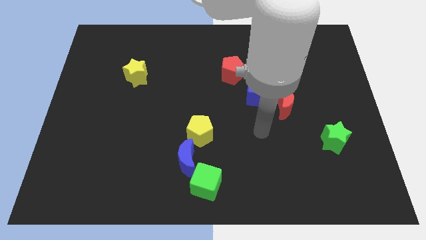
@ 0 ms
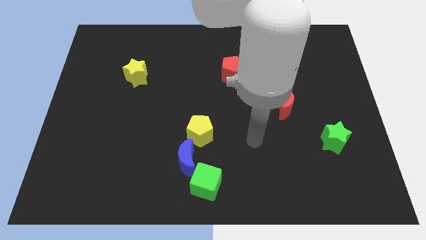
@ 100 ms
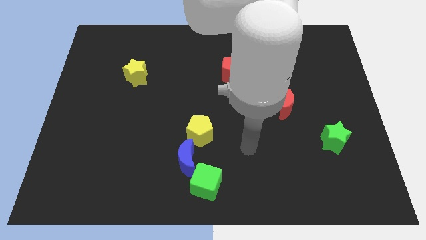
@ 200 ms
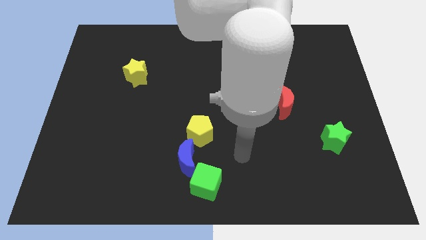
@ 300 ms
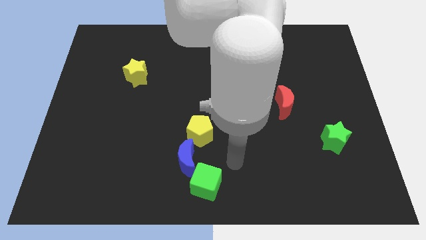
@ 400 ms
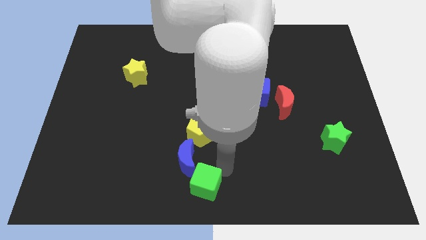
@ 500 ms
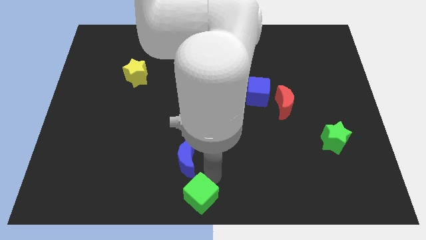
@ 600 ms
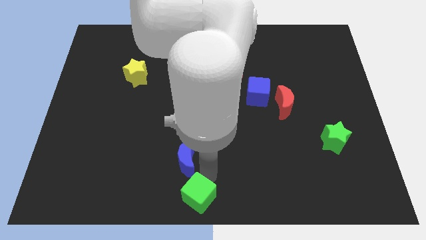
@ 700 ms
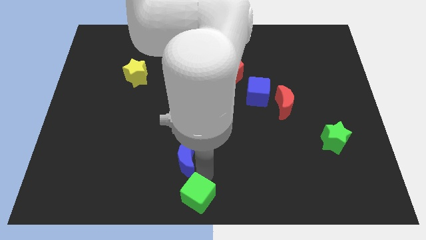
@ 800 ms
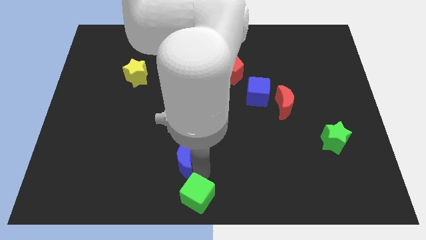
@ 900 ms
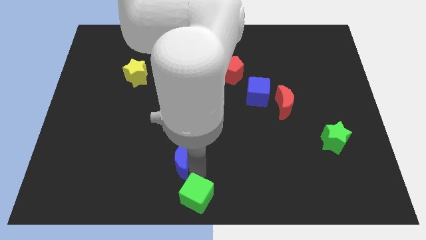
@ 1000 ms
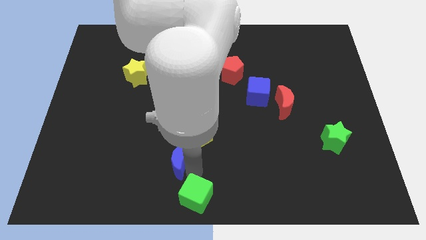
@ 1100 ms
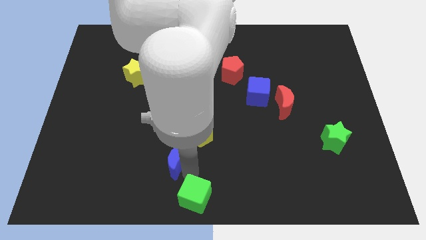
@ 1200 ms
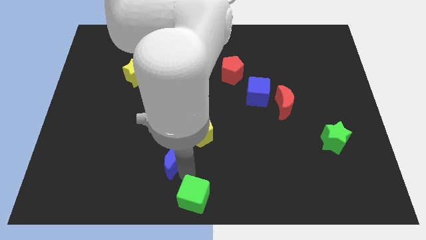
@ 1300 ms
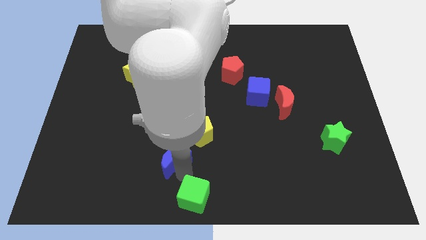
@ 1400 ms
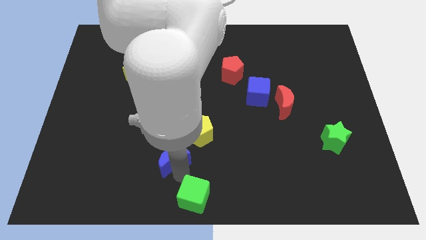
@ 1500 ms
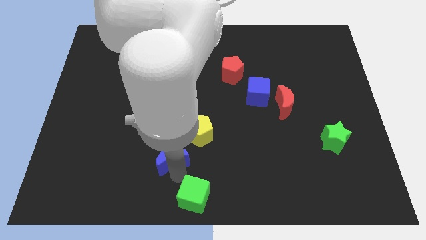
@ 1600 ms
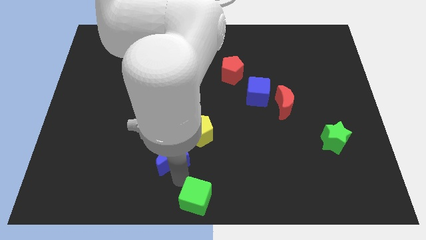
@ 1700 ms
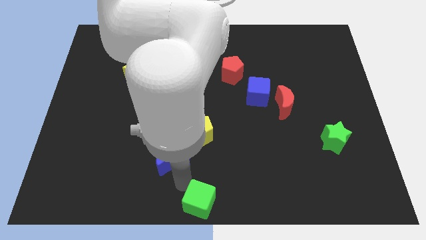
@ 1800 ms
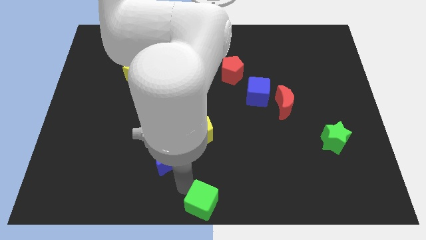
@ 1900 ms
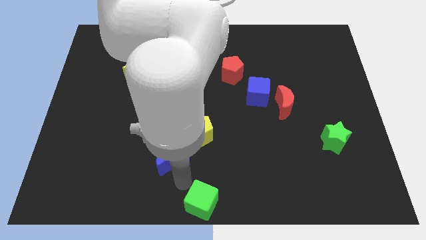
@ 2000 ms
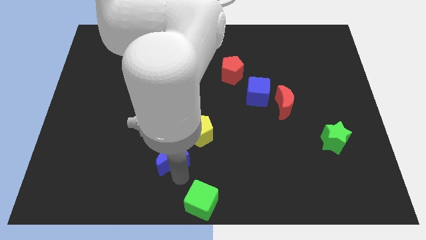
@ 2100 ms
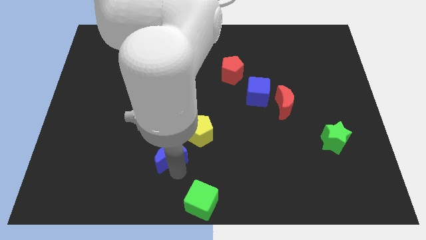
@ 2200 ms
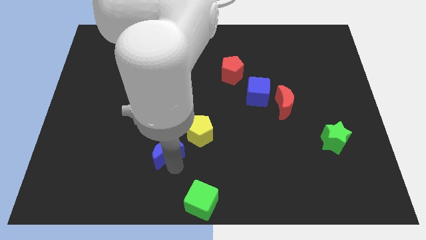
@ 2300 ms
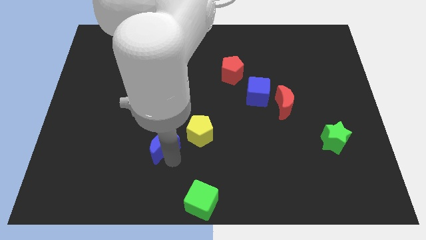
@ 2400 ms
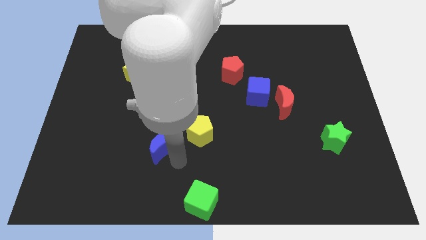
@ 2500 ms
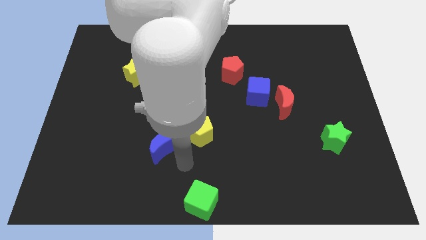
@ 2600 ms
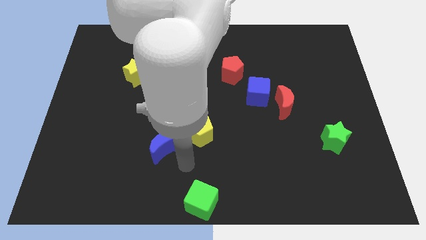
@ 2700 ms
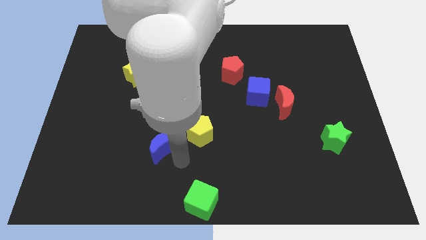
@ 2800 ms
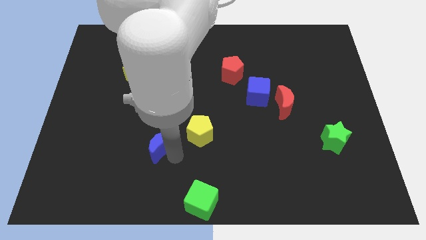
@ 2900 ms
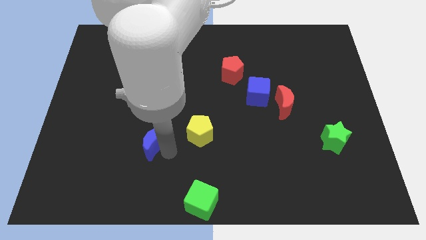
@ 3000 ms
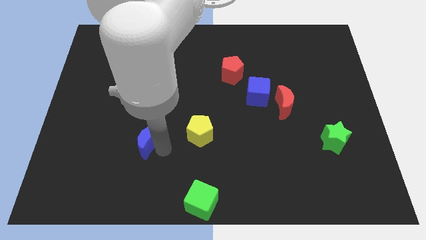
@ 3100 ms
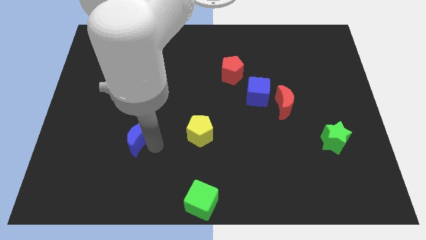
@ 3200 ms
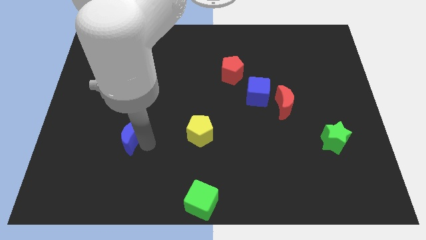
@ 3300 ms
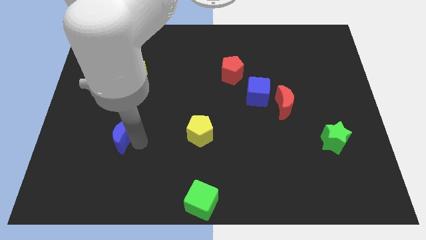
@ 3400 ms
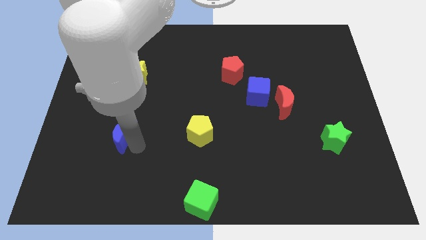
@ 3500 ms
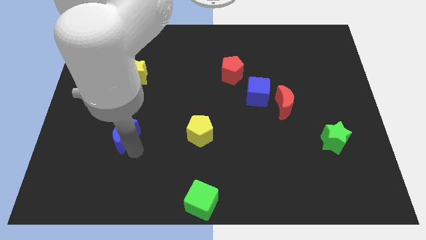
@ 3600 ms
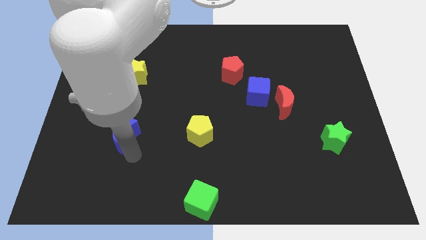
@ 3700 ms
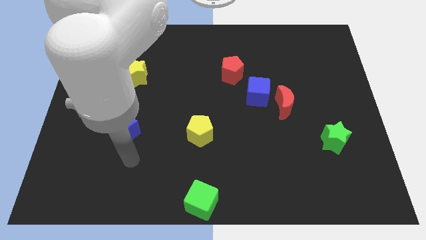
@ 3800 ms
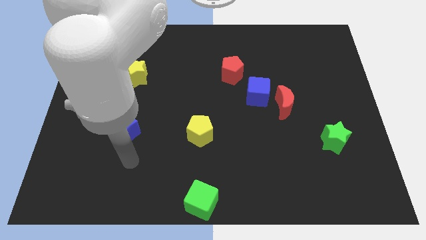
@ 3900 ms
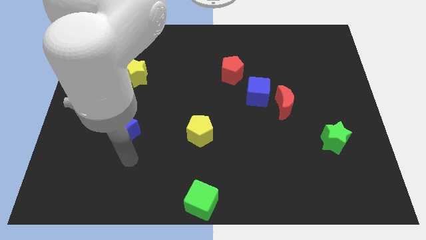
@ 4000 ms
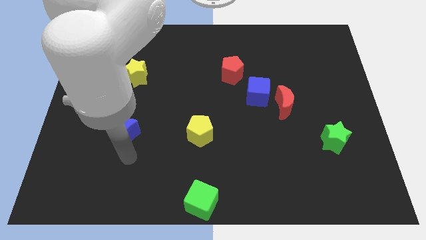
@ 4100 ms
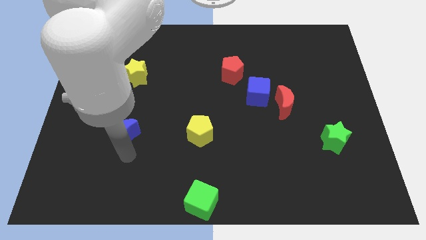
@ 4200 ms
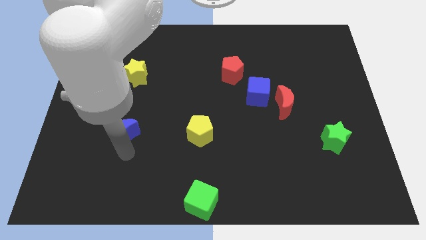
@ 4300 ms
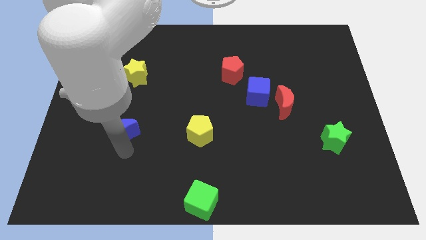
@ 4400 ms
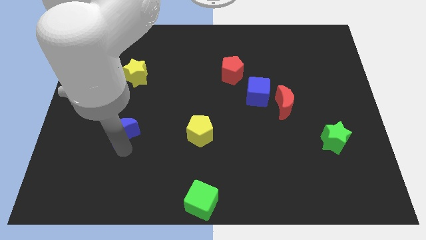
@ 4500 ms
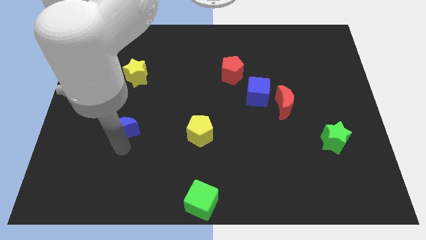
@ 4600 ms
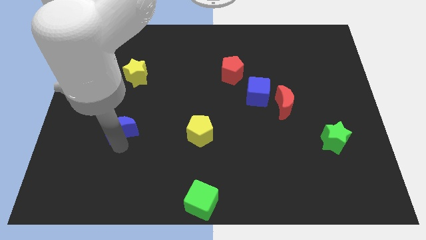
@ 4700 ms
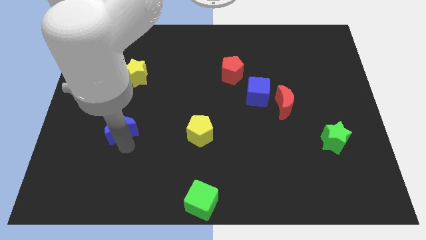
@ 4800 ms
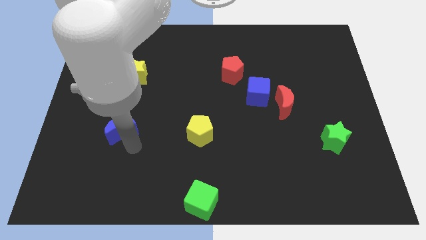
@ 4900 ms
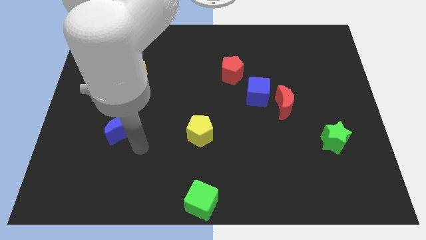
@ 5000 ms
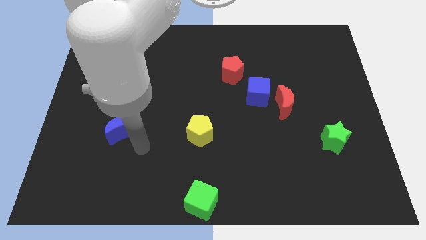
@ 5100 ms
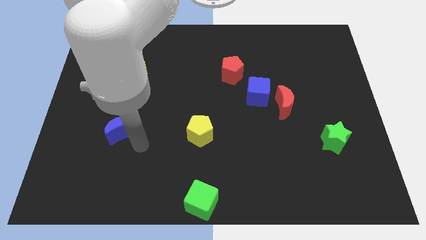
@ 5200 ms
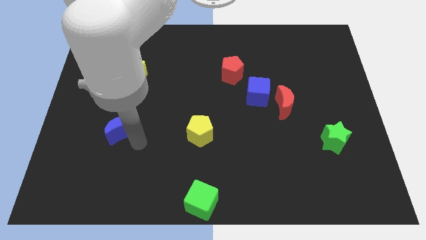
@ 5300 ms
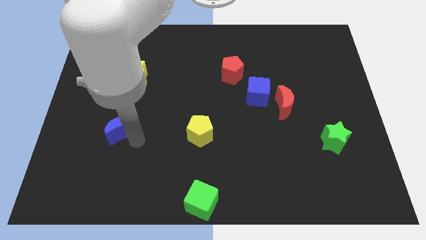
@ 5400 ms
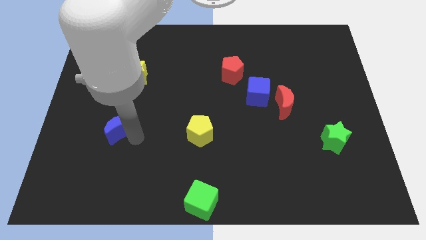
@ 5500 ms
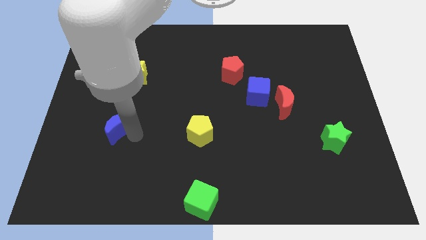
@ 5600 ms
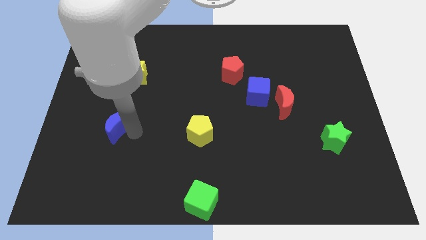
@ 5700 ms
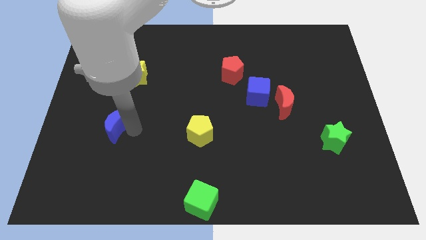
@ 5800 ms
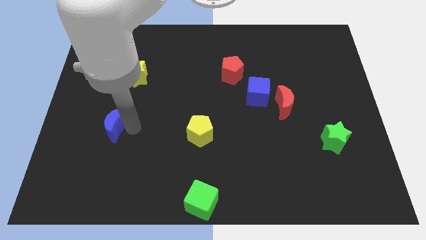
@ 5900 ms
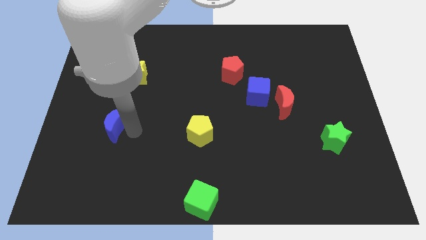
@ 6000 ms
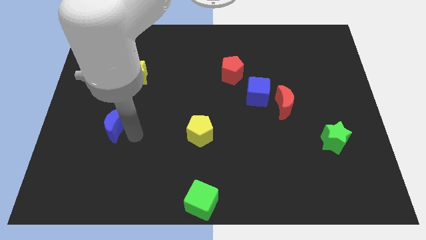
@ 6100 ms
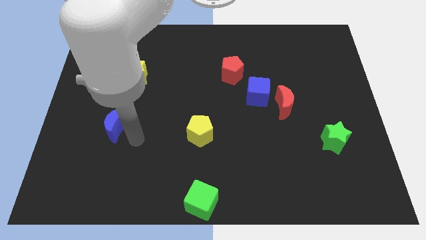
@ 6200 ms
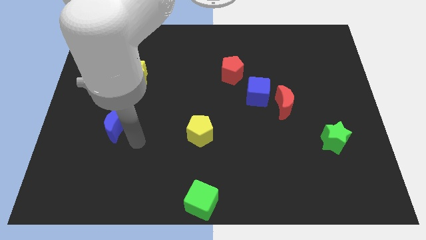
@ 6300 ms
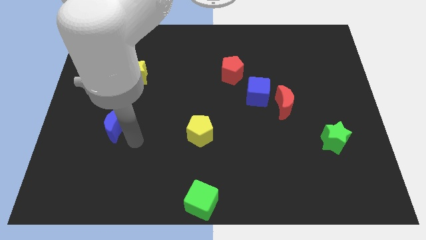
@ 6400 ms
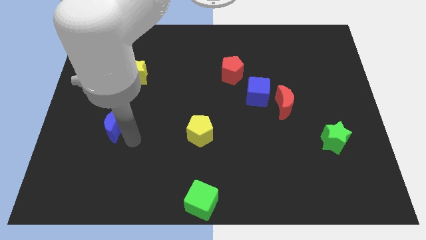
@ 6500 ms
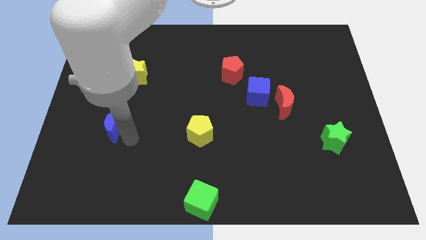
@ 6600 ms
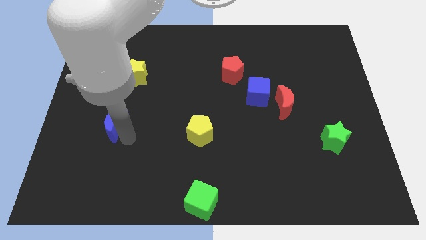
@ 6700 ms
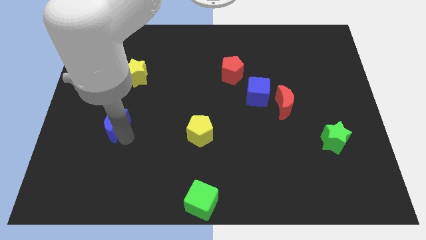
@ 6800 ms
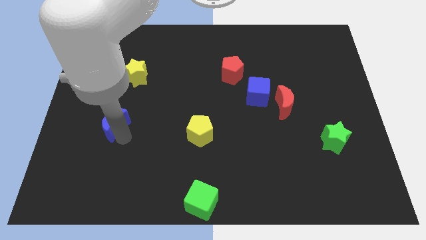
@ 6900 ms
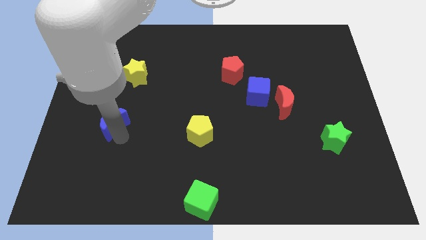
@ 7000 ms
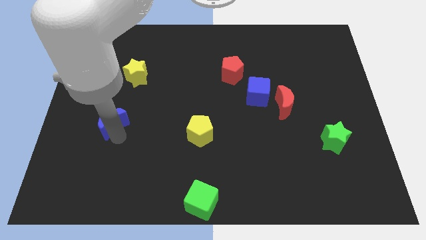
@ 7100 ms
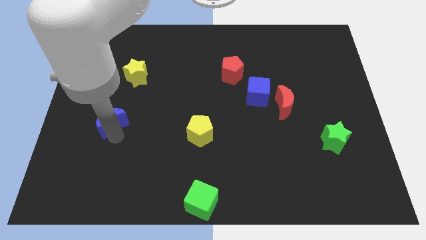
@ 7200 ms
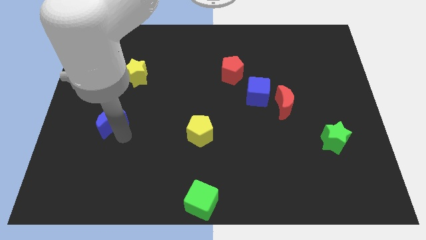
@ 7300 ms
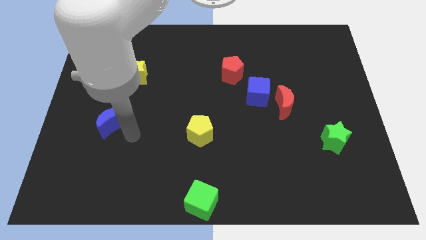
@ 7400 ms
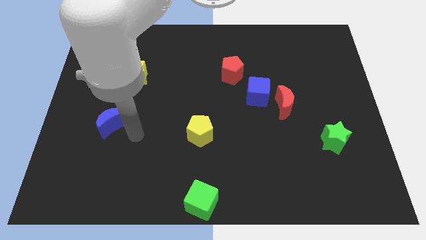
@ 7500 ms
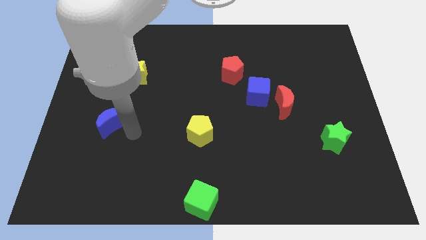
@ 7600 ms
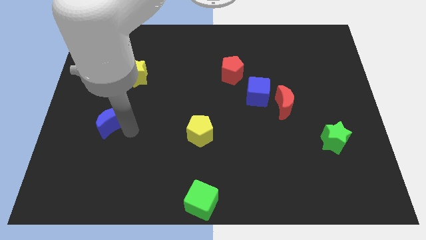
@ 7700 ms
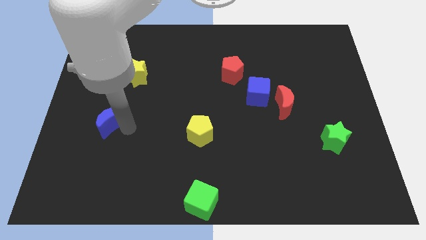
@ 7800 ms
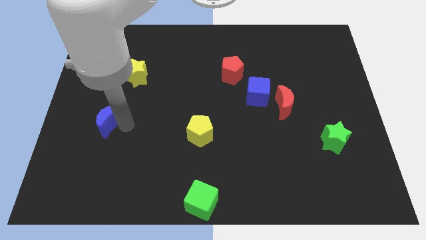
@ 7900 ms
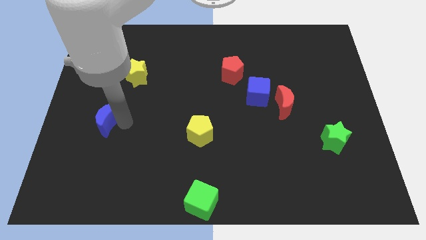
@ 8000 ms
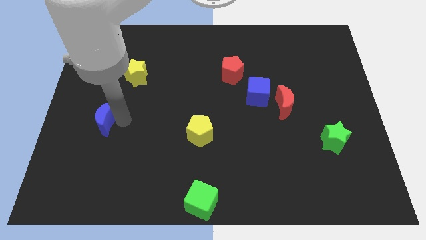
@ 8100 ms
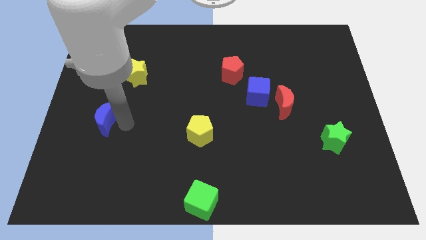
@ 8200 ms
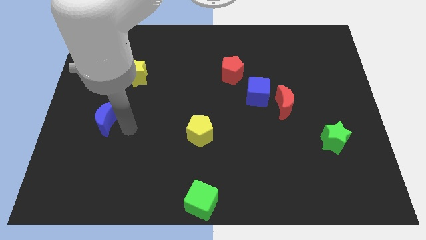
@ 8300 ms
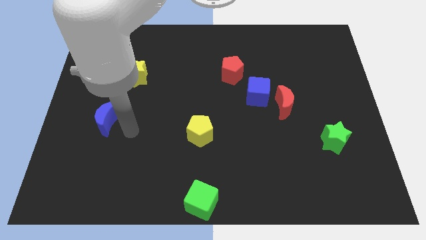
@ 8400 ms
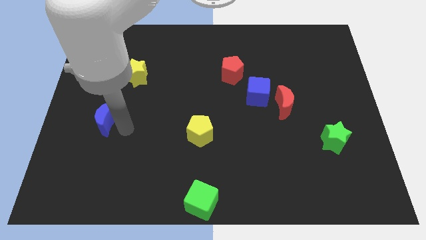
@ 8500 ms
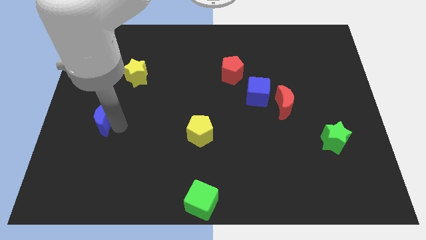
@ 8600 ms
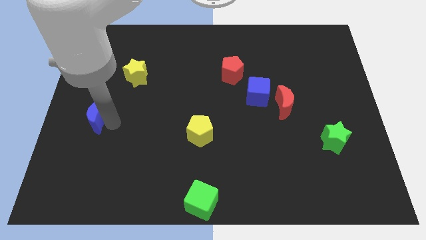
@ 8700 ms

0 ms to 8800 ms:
slide the blue moon to the center left
